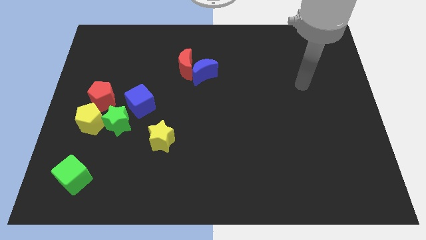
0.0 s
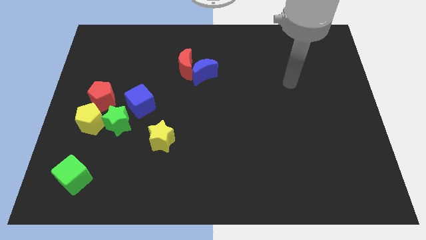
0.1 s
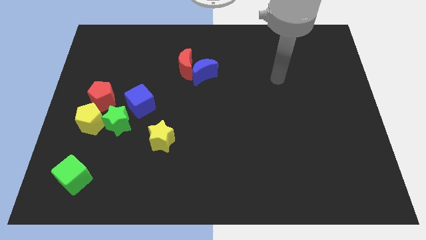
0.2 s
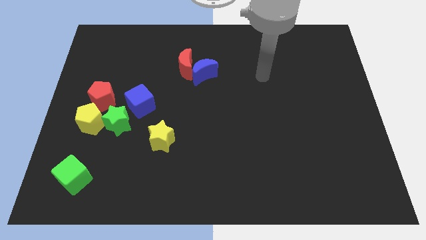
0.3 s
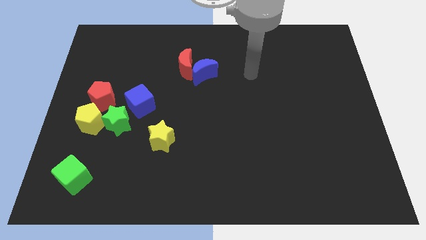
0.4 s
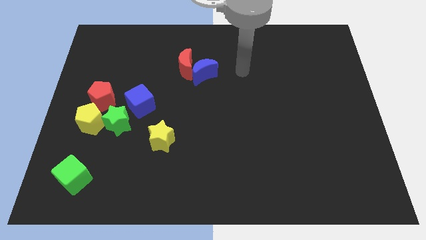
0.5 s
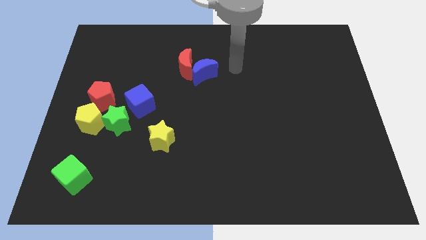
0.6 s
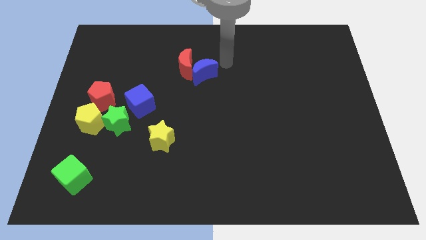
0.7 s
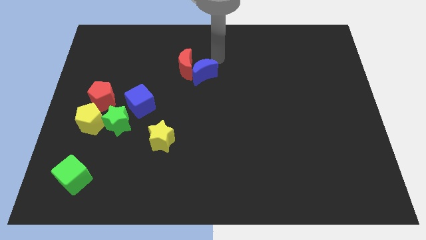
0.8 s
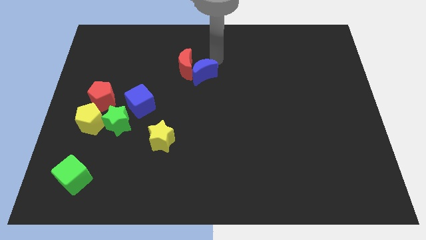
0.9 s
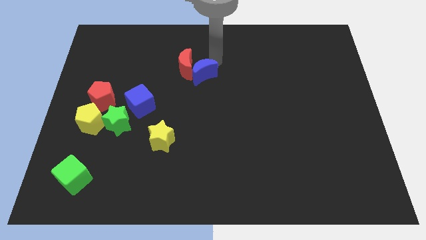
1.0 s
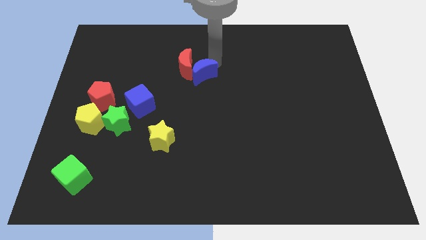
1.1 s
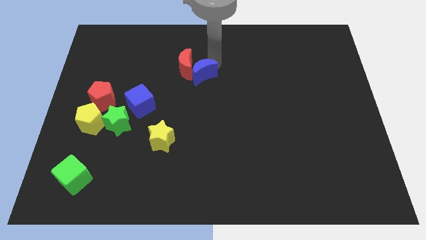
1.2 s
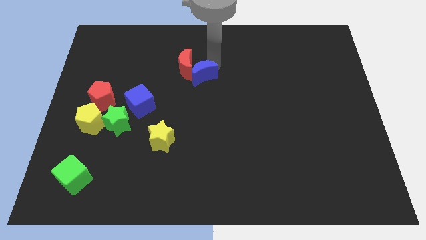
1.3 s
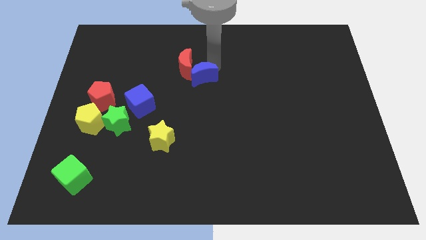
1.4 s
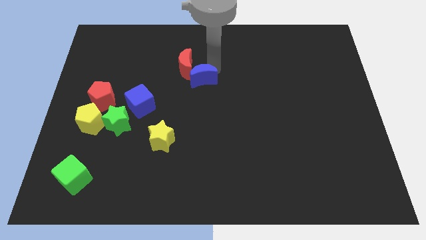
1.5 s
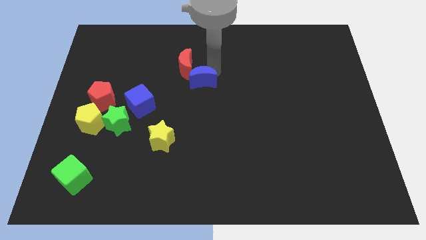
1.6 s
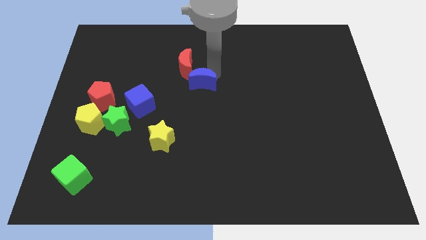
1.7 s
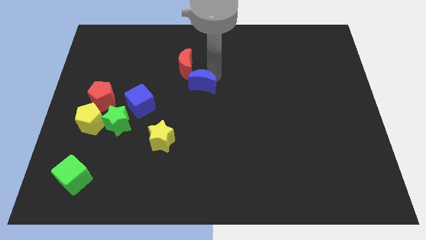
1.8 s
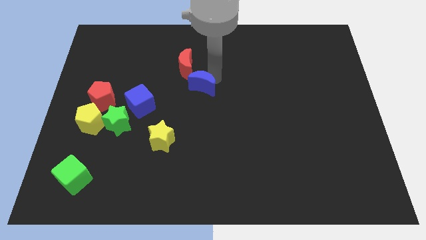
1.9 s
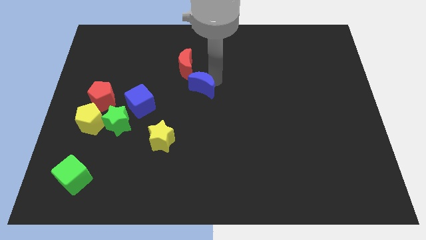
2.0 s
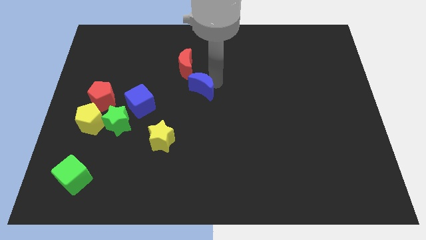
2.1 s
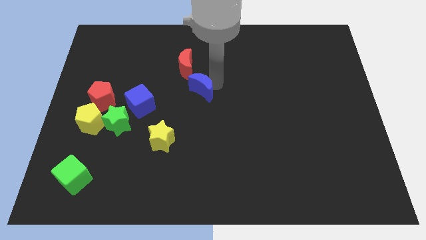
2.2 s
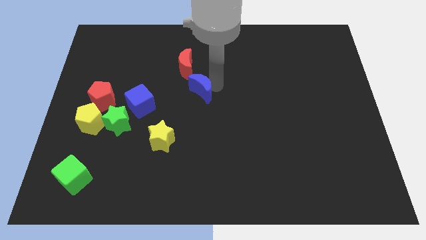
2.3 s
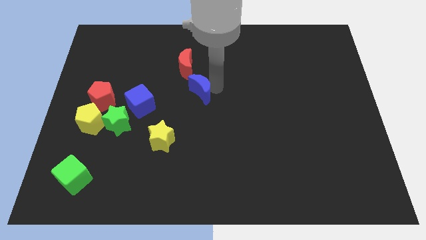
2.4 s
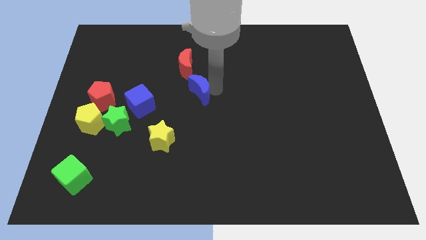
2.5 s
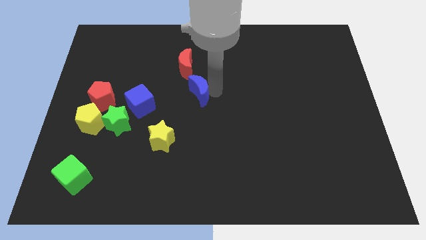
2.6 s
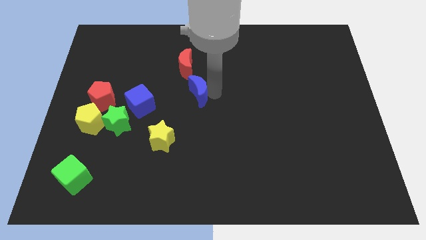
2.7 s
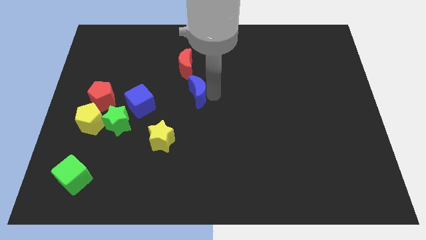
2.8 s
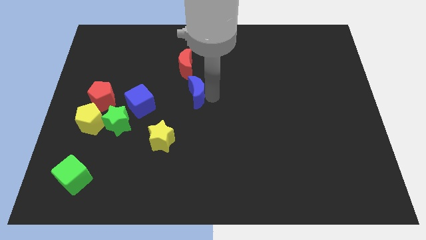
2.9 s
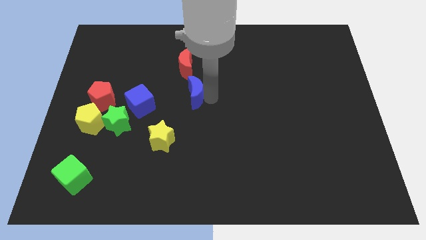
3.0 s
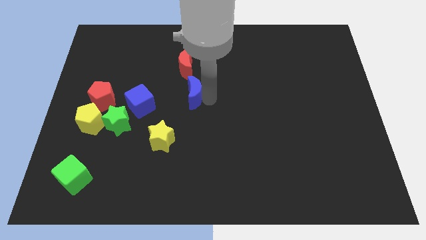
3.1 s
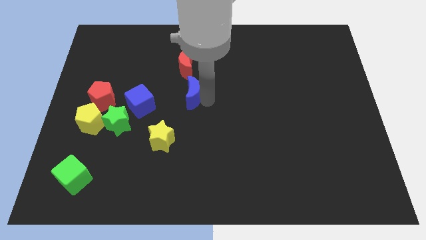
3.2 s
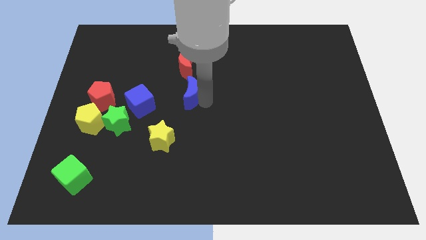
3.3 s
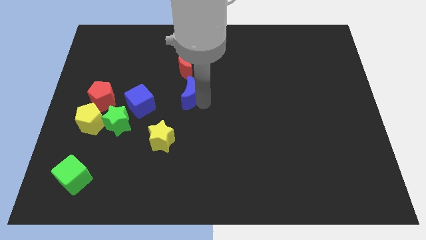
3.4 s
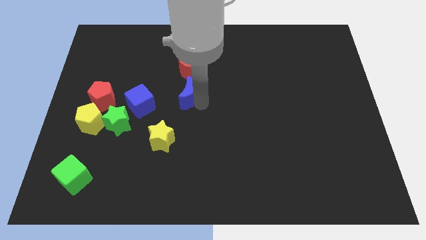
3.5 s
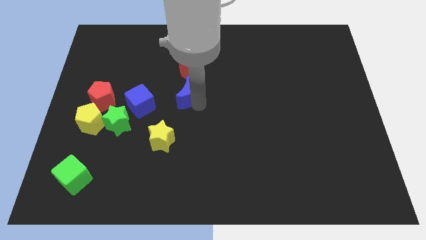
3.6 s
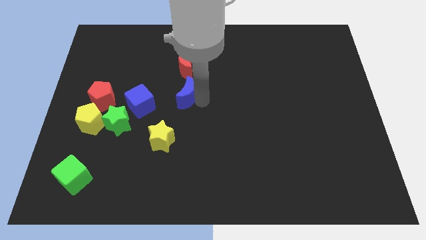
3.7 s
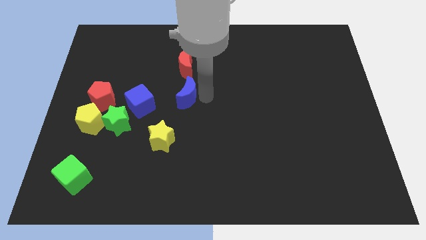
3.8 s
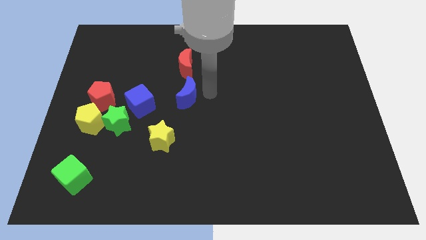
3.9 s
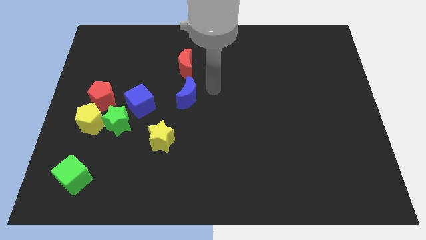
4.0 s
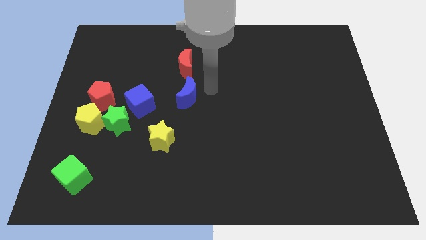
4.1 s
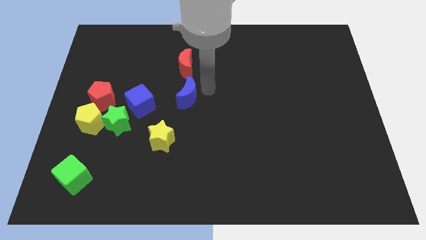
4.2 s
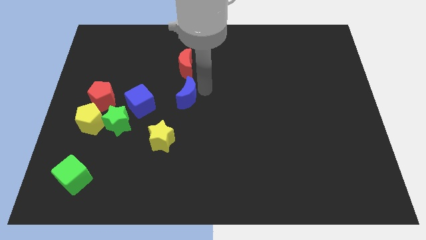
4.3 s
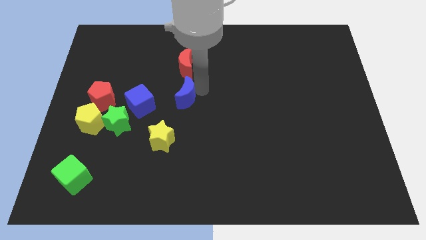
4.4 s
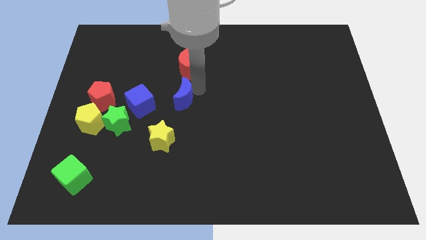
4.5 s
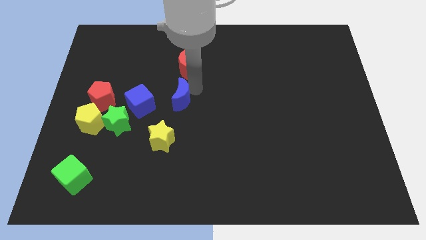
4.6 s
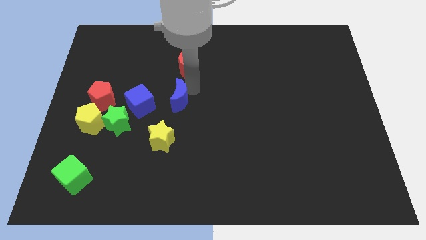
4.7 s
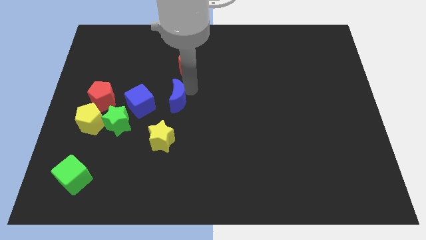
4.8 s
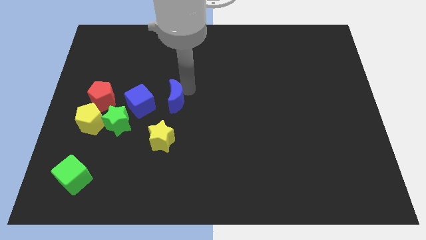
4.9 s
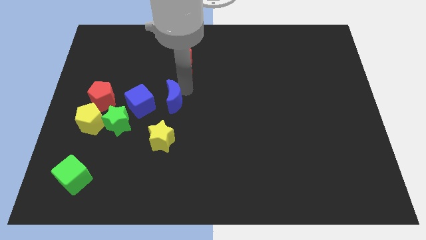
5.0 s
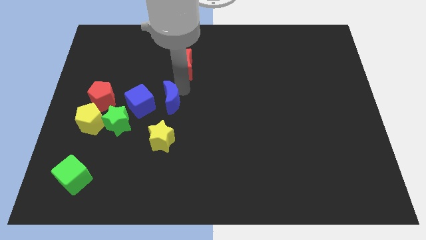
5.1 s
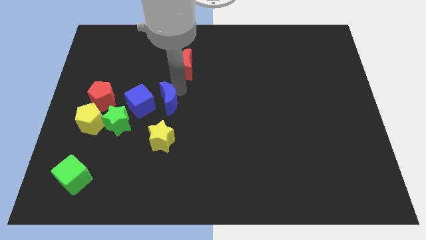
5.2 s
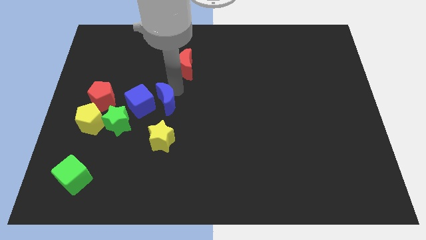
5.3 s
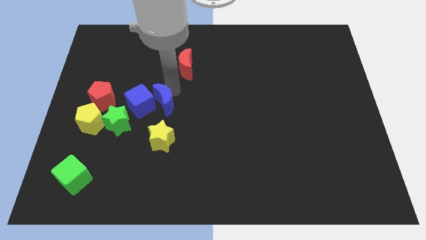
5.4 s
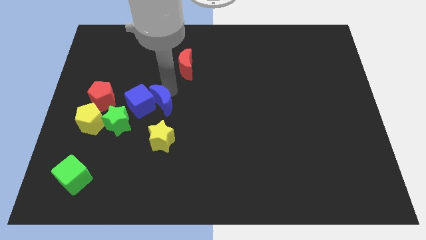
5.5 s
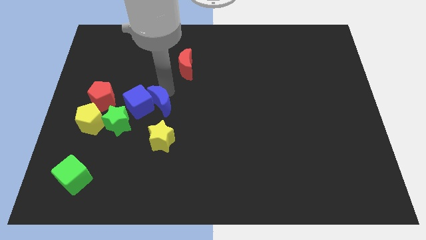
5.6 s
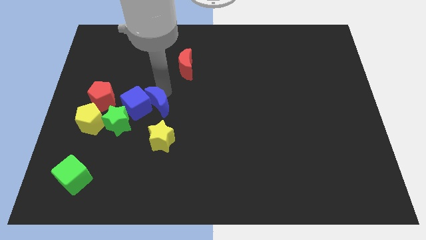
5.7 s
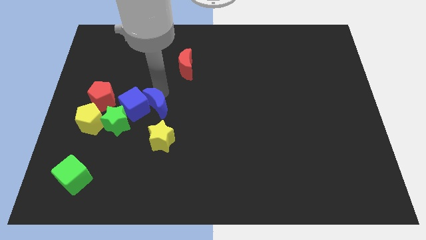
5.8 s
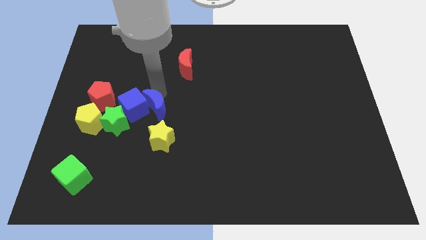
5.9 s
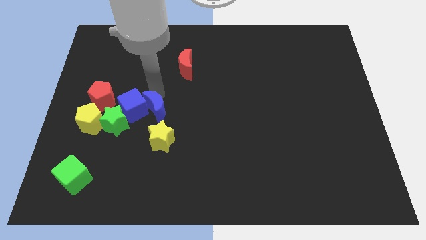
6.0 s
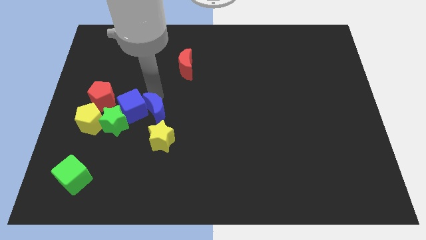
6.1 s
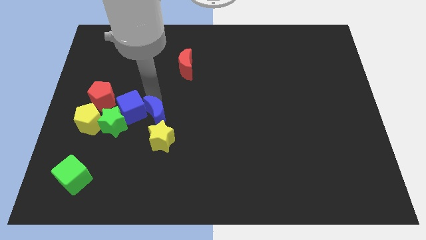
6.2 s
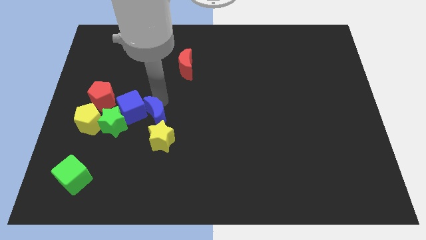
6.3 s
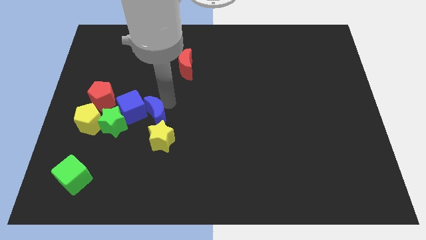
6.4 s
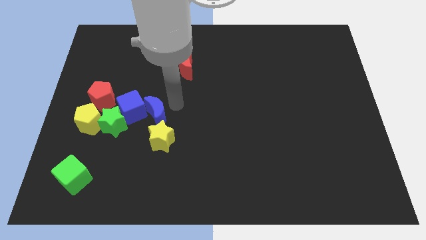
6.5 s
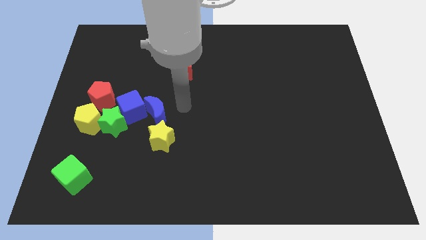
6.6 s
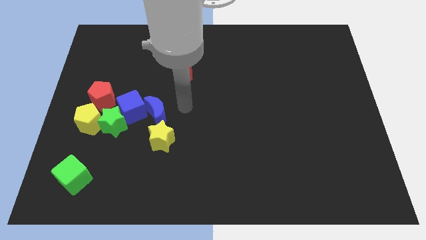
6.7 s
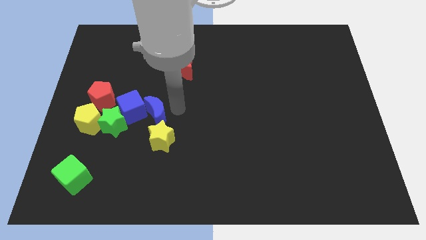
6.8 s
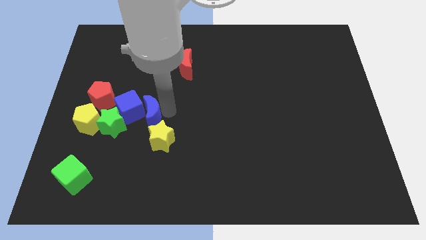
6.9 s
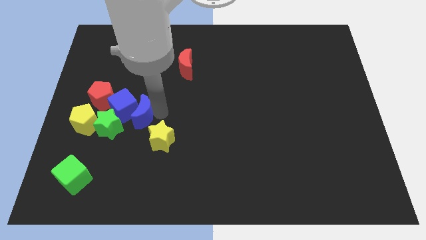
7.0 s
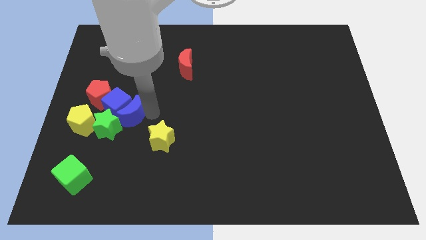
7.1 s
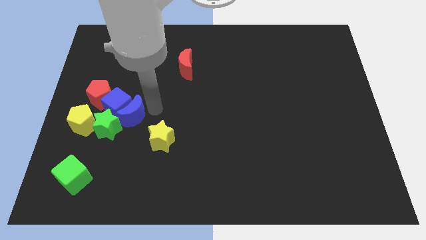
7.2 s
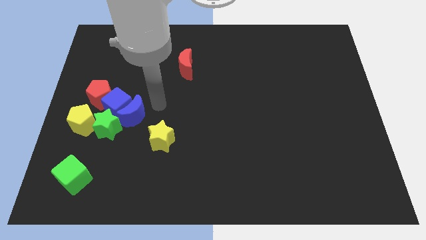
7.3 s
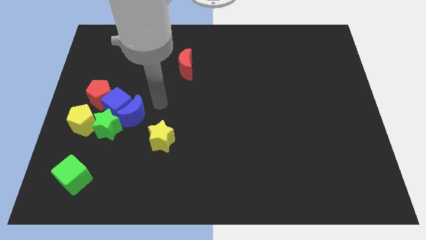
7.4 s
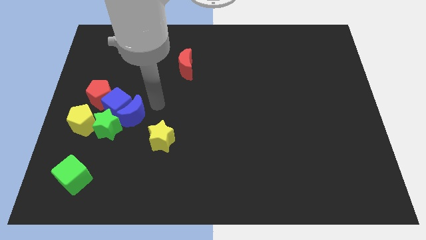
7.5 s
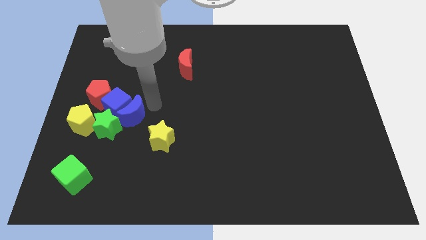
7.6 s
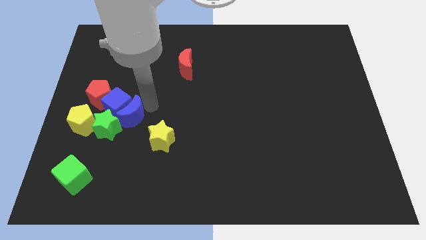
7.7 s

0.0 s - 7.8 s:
push the blue moon to the green star
